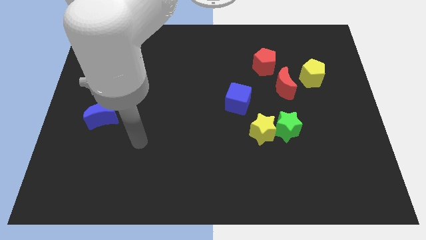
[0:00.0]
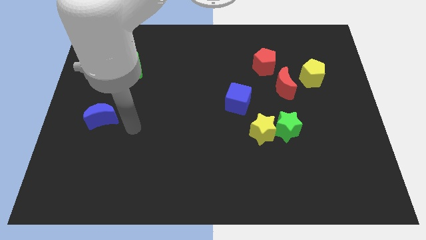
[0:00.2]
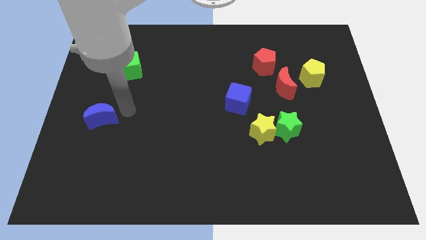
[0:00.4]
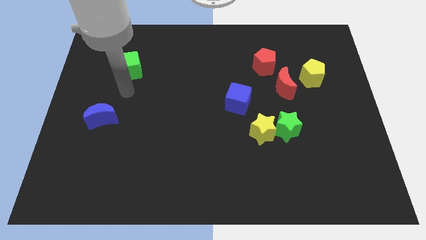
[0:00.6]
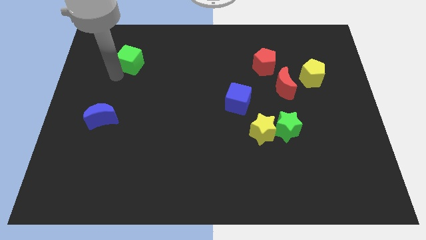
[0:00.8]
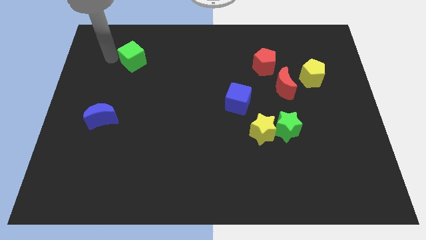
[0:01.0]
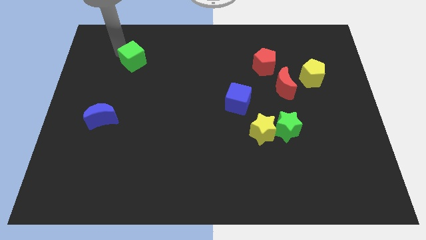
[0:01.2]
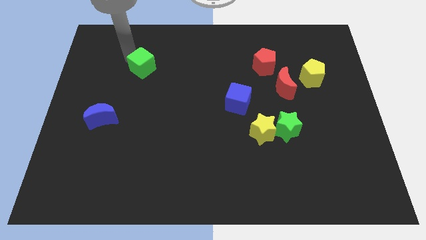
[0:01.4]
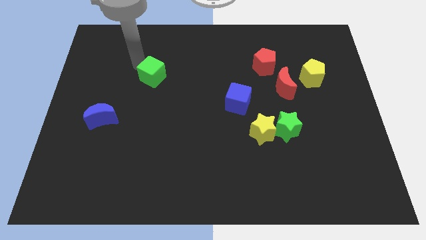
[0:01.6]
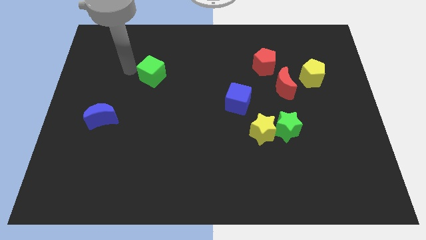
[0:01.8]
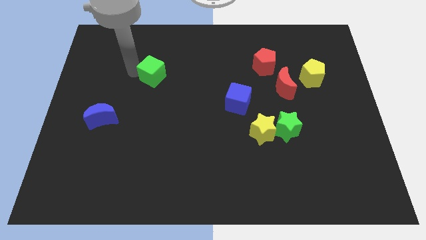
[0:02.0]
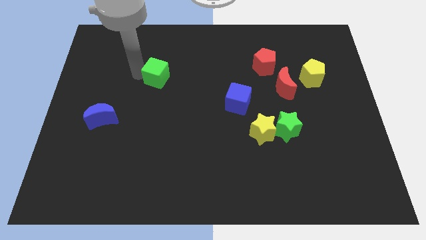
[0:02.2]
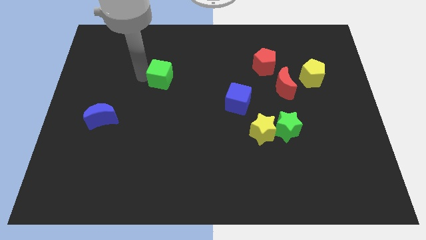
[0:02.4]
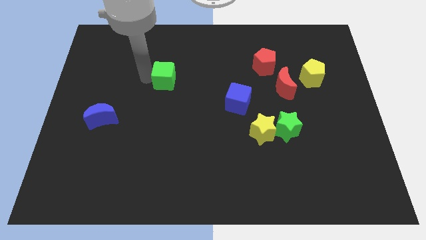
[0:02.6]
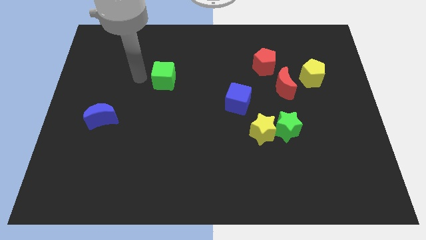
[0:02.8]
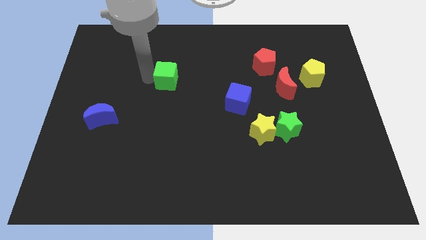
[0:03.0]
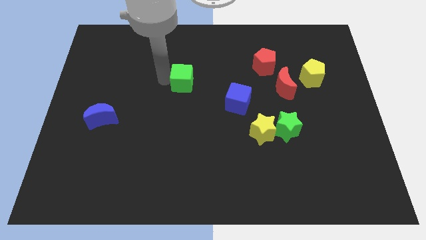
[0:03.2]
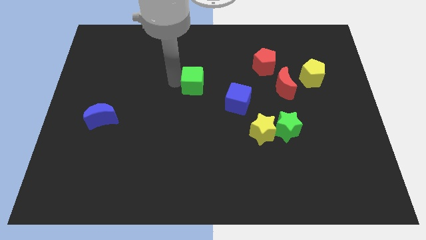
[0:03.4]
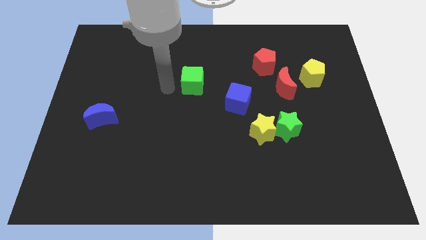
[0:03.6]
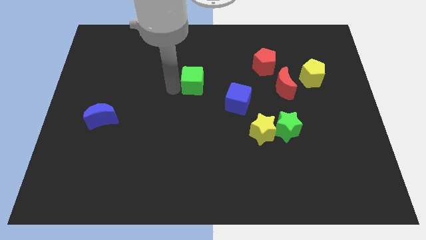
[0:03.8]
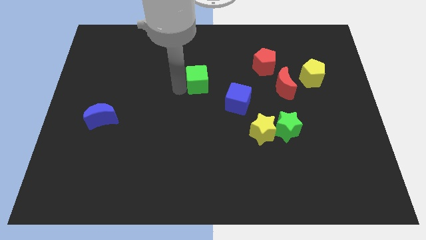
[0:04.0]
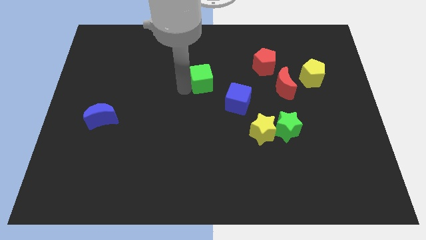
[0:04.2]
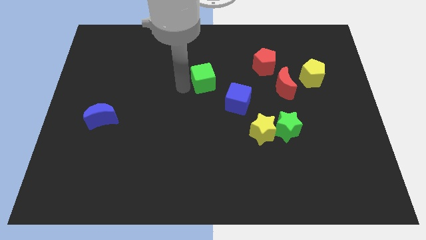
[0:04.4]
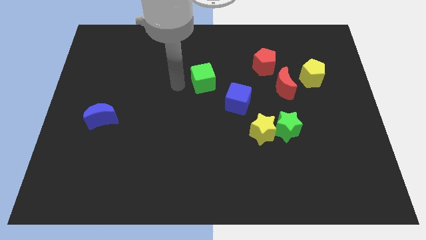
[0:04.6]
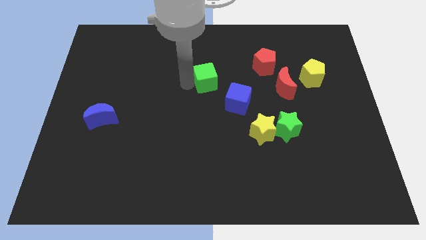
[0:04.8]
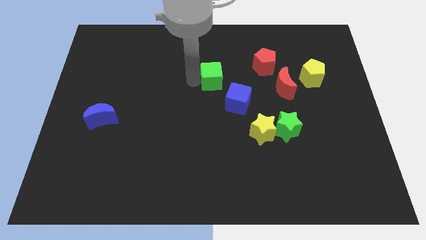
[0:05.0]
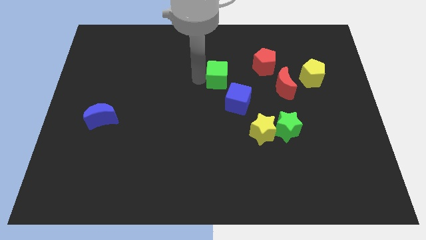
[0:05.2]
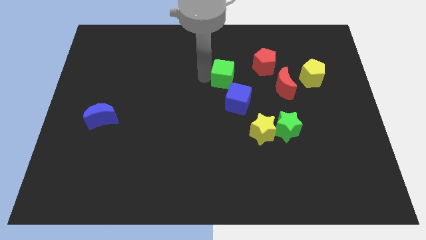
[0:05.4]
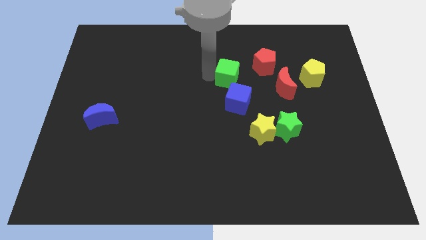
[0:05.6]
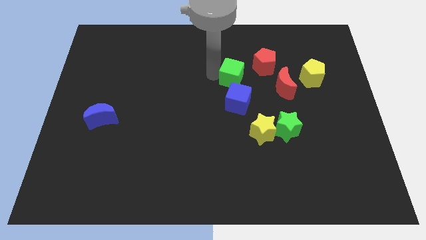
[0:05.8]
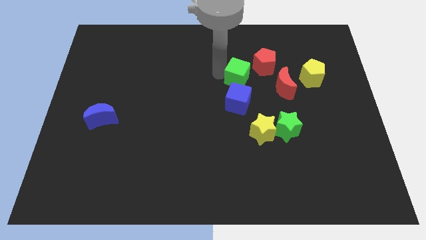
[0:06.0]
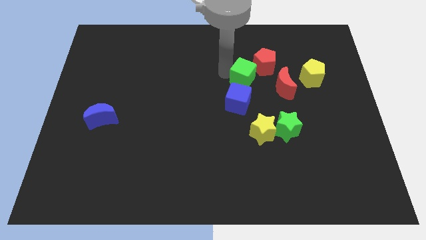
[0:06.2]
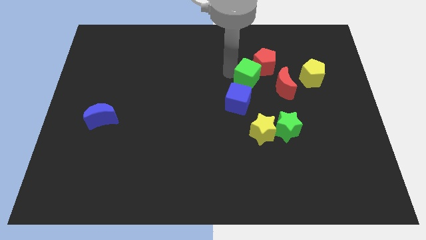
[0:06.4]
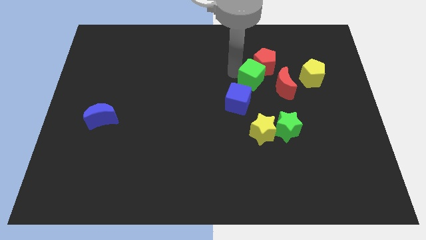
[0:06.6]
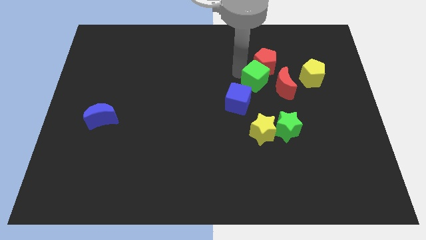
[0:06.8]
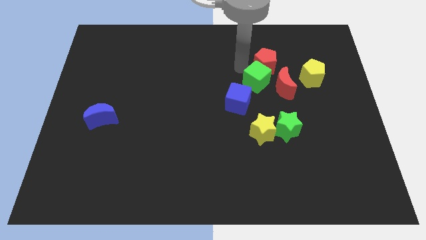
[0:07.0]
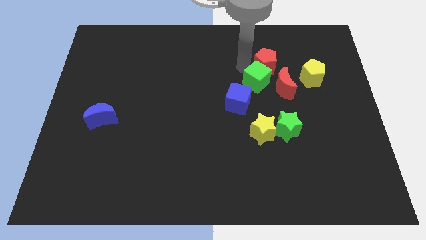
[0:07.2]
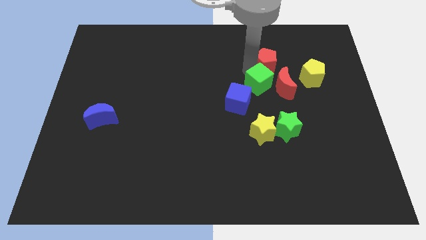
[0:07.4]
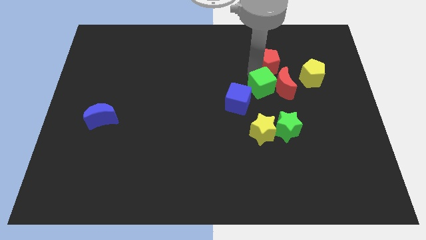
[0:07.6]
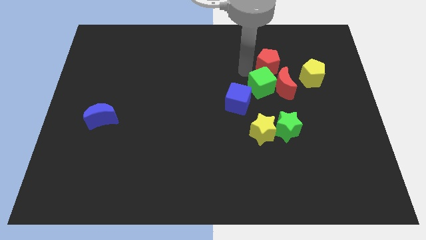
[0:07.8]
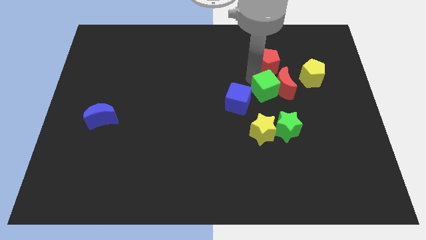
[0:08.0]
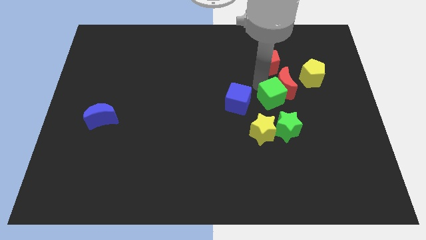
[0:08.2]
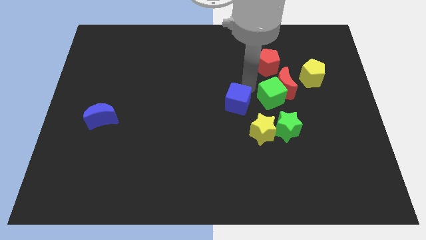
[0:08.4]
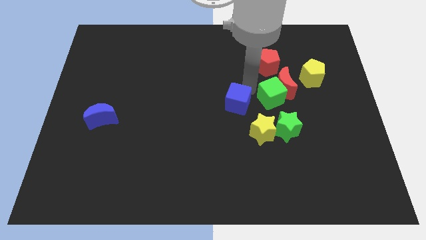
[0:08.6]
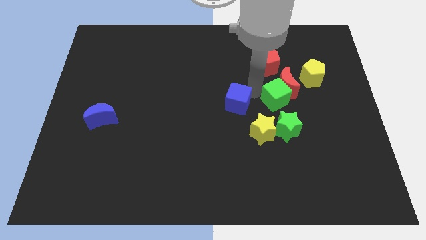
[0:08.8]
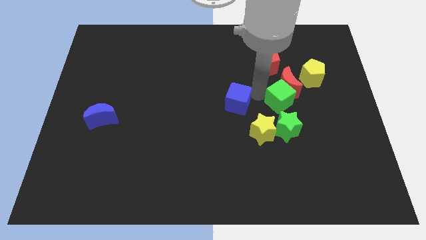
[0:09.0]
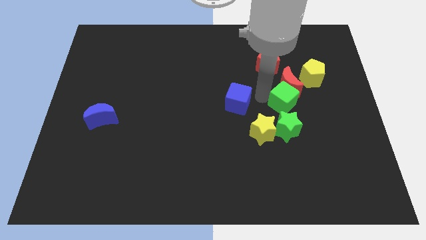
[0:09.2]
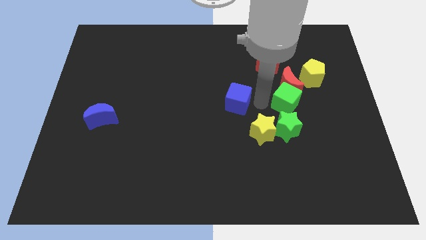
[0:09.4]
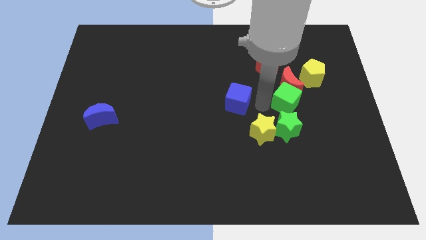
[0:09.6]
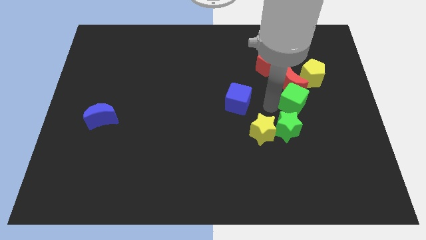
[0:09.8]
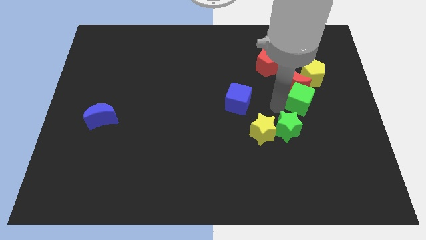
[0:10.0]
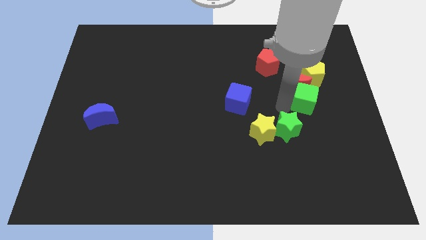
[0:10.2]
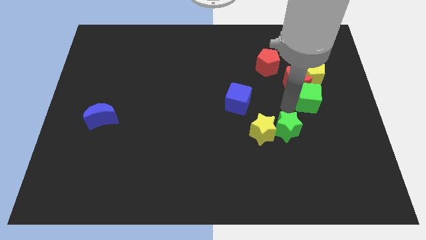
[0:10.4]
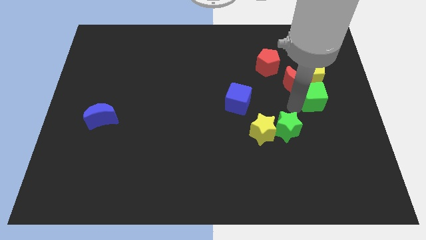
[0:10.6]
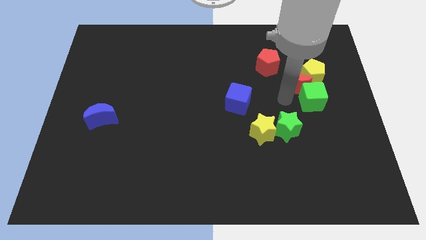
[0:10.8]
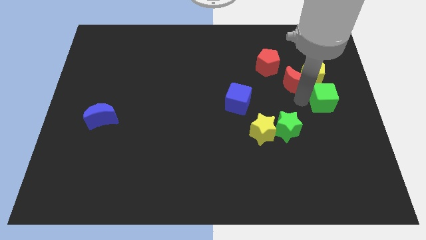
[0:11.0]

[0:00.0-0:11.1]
push the green cube to the right side of the board
